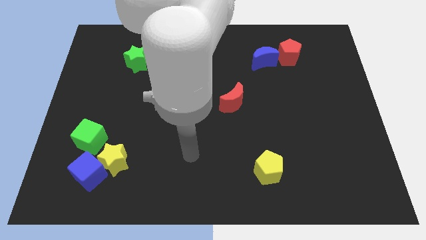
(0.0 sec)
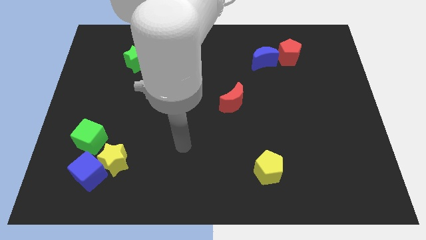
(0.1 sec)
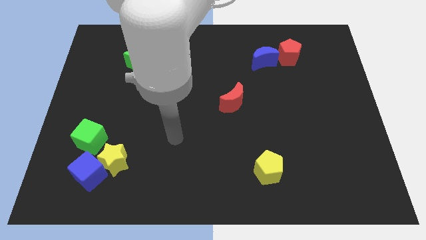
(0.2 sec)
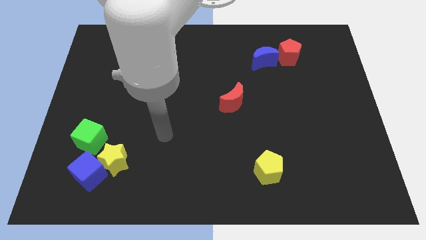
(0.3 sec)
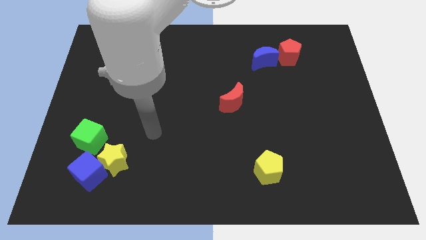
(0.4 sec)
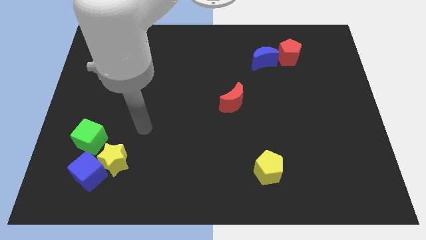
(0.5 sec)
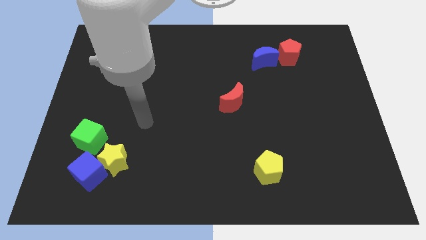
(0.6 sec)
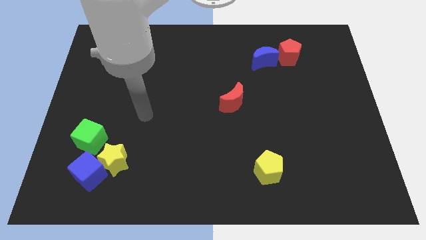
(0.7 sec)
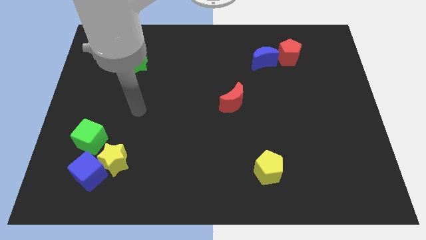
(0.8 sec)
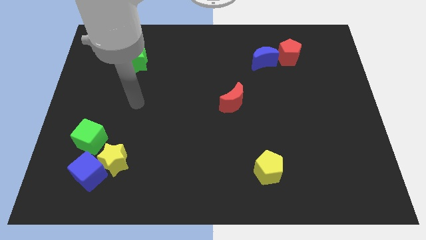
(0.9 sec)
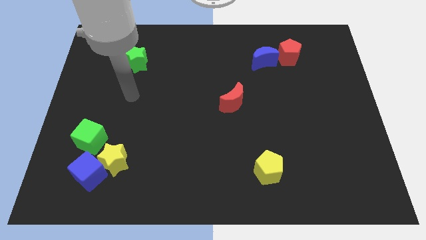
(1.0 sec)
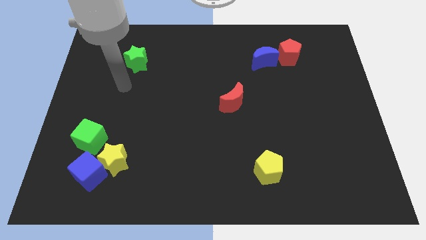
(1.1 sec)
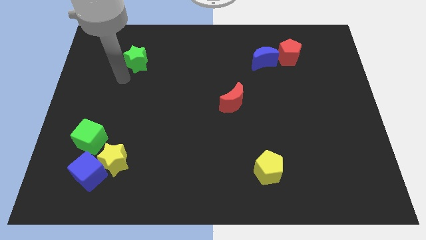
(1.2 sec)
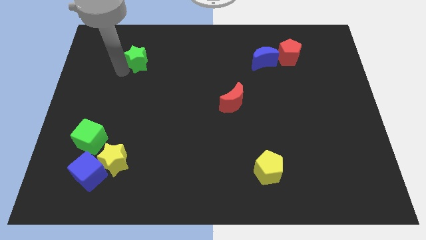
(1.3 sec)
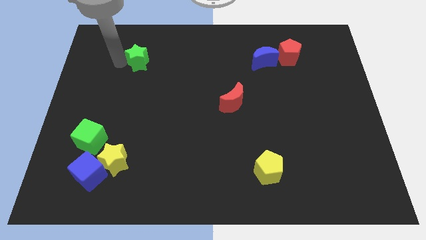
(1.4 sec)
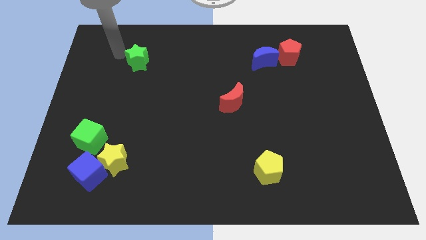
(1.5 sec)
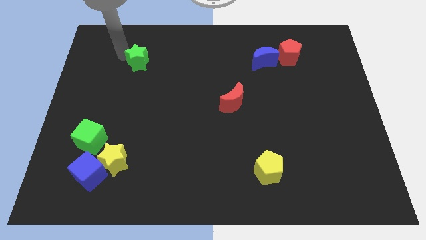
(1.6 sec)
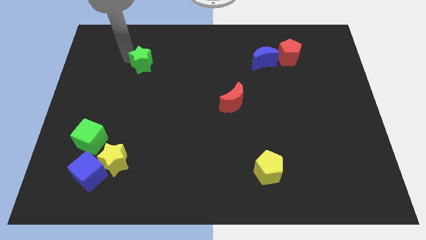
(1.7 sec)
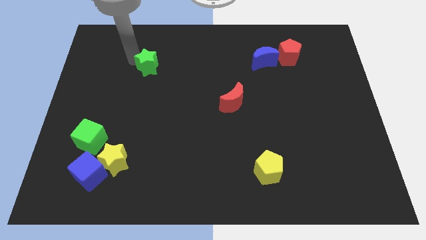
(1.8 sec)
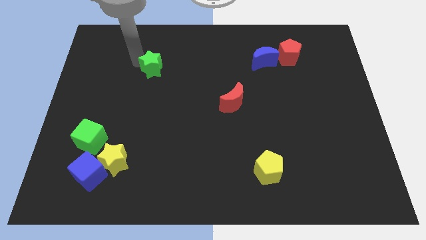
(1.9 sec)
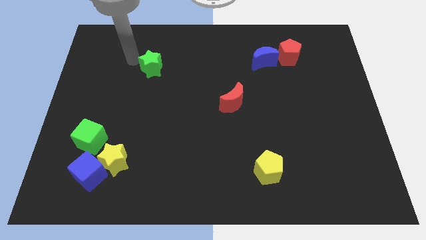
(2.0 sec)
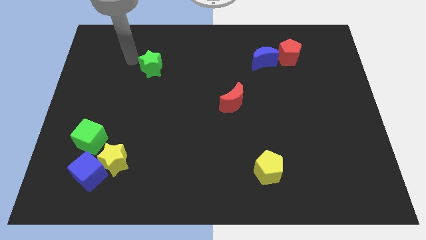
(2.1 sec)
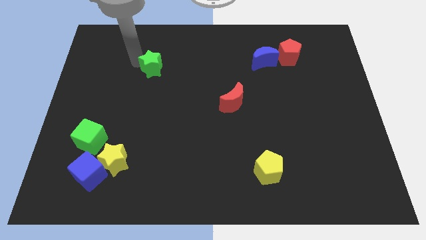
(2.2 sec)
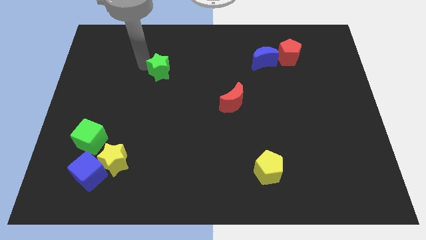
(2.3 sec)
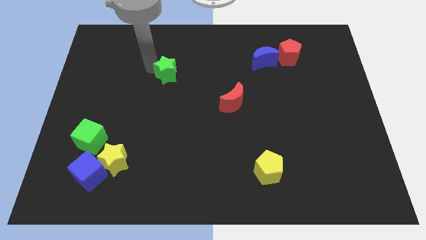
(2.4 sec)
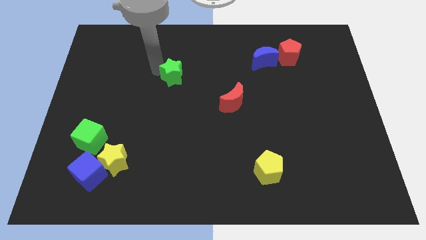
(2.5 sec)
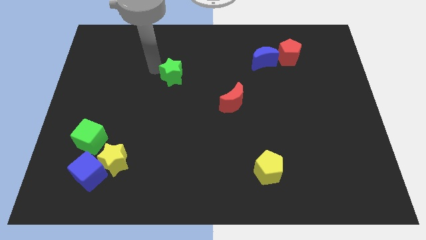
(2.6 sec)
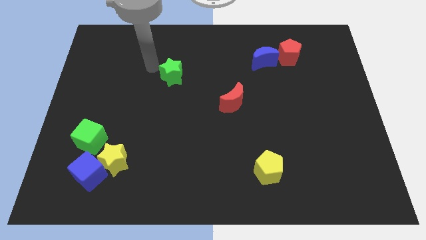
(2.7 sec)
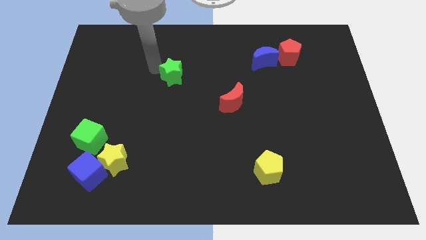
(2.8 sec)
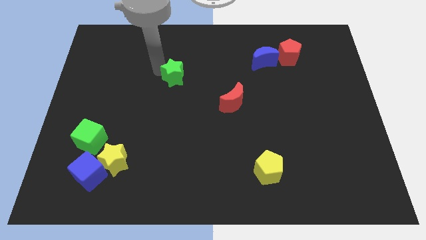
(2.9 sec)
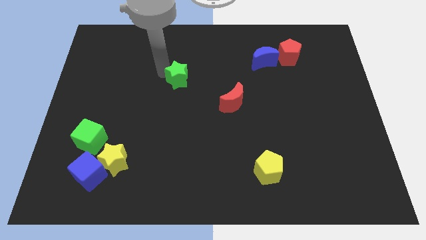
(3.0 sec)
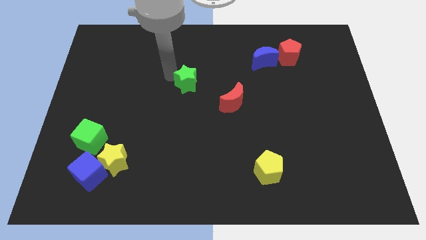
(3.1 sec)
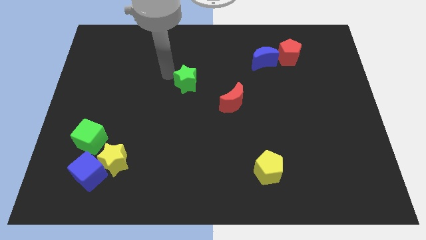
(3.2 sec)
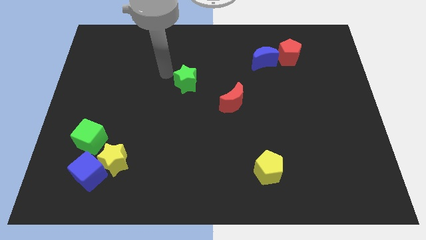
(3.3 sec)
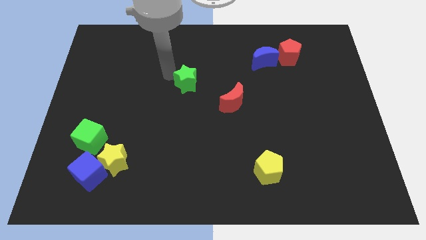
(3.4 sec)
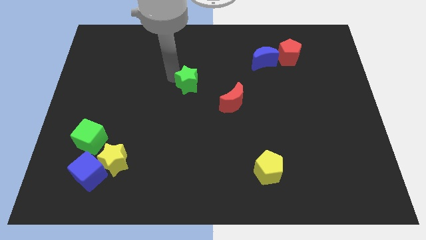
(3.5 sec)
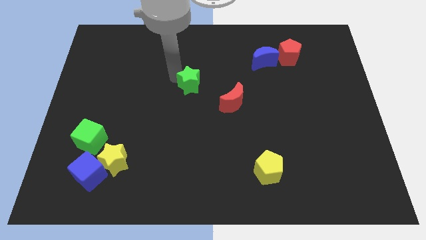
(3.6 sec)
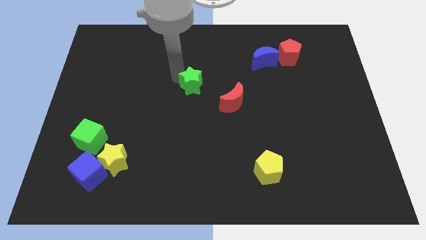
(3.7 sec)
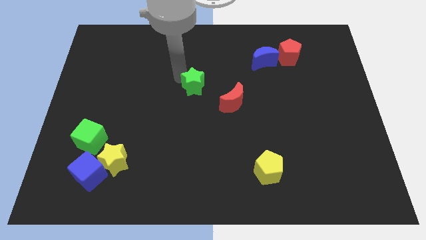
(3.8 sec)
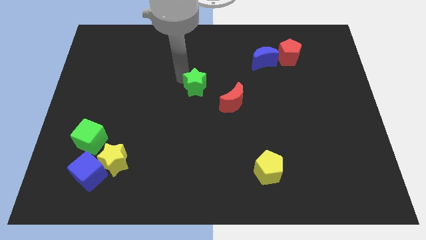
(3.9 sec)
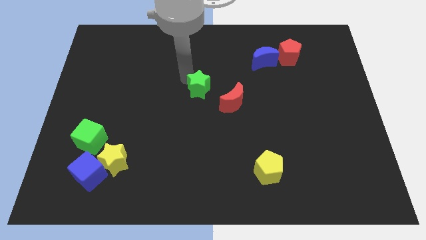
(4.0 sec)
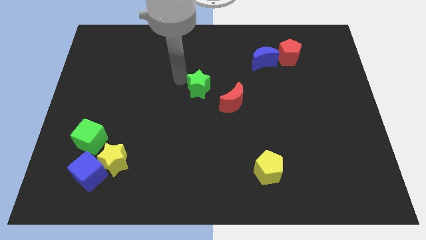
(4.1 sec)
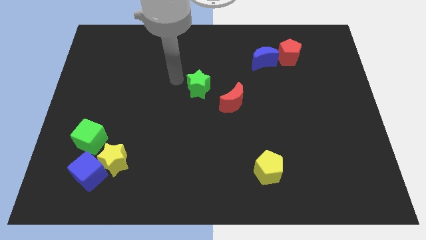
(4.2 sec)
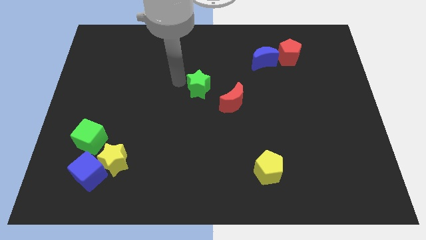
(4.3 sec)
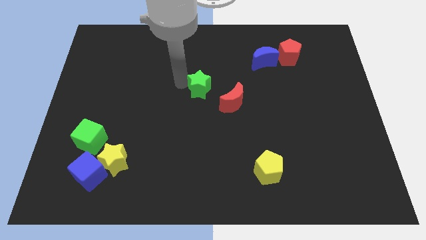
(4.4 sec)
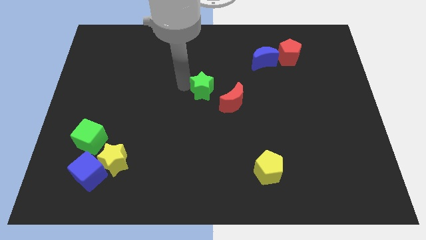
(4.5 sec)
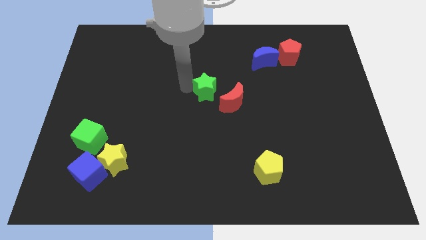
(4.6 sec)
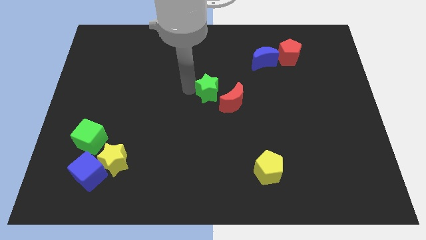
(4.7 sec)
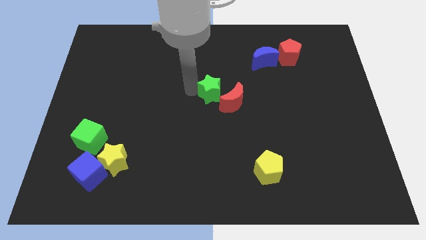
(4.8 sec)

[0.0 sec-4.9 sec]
push the green star close to the red moon

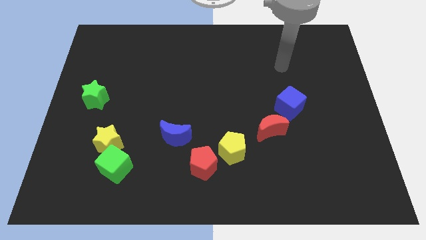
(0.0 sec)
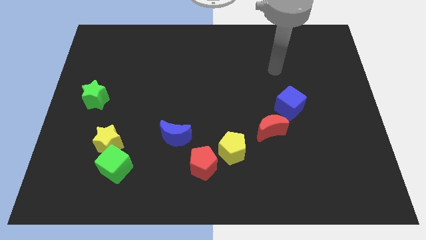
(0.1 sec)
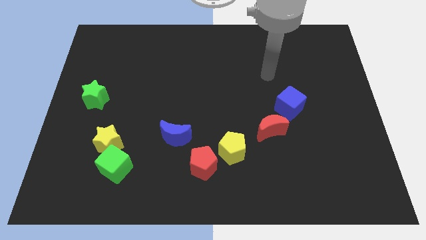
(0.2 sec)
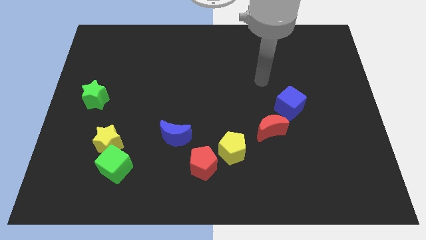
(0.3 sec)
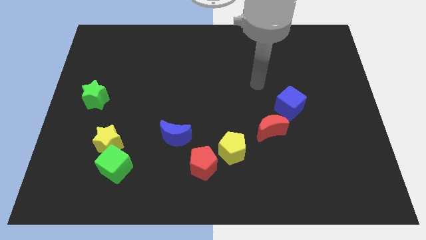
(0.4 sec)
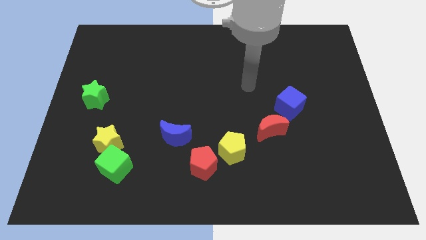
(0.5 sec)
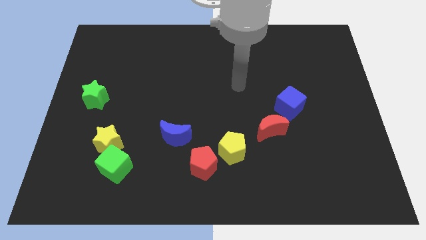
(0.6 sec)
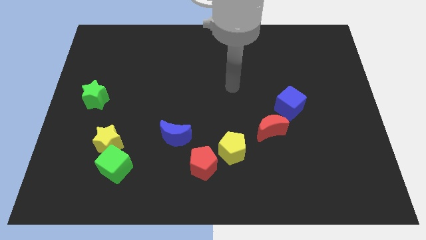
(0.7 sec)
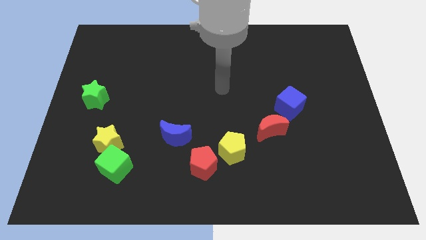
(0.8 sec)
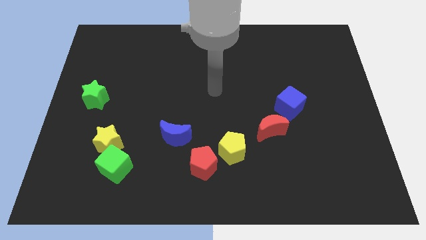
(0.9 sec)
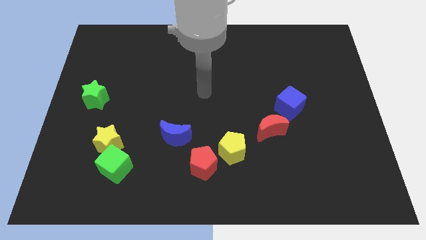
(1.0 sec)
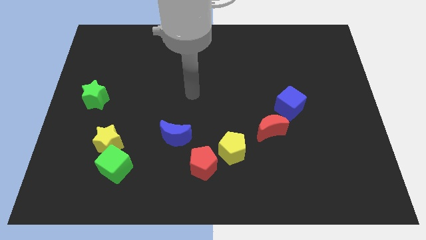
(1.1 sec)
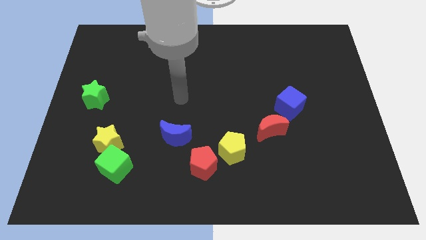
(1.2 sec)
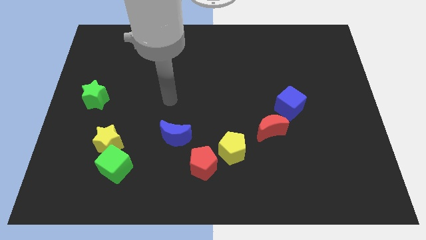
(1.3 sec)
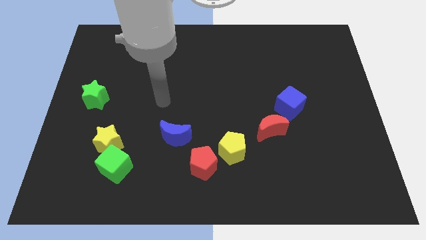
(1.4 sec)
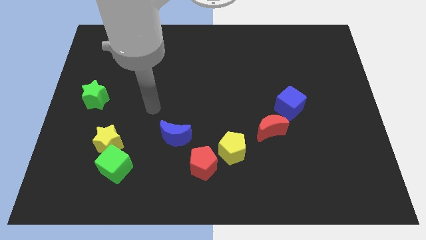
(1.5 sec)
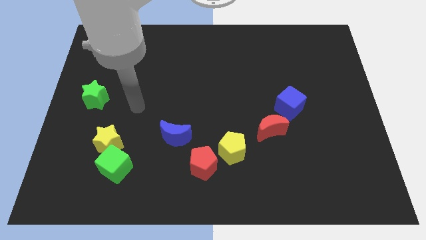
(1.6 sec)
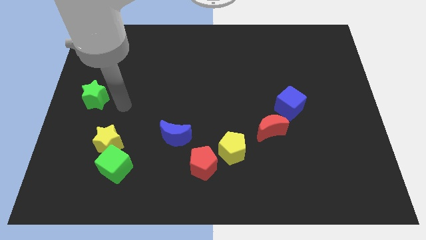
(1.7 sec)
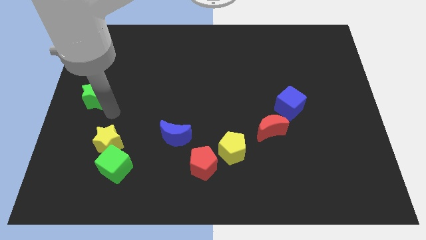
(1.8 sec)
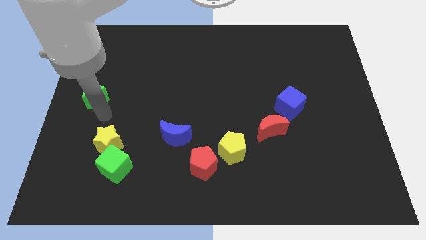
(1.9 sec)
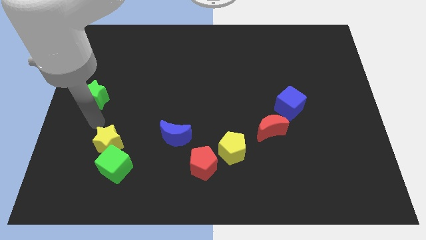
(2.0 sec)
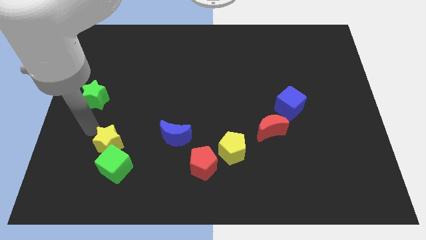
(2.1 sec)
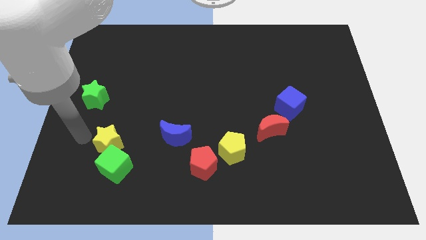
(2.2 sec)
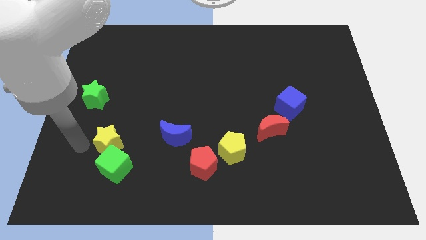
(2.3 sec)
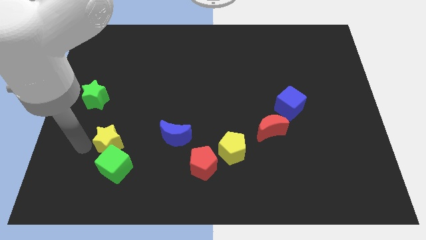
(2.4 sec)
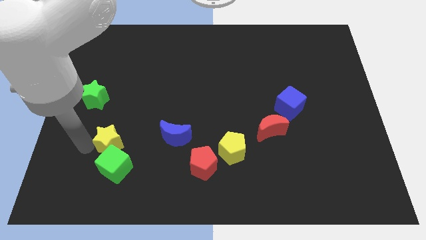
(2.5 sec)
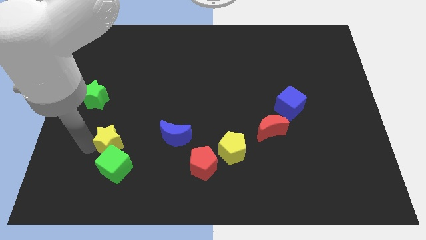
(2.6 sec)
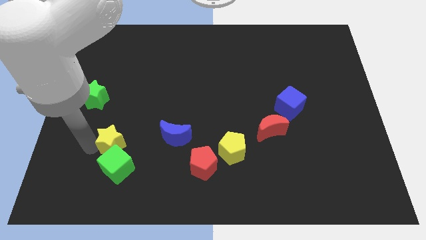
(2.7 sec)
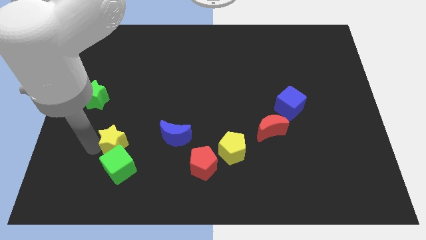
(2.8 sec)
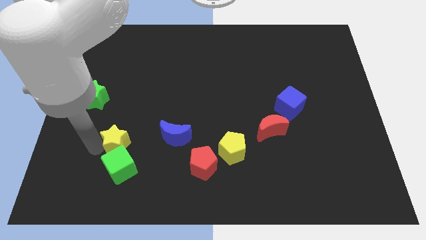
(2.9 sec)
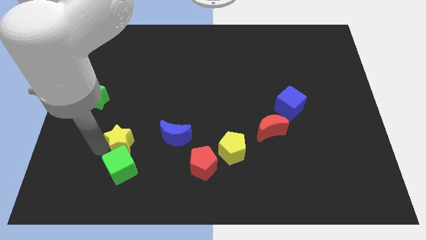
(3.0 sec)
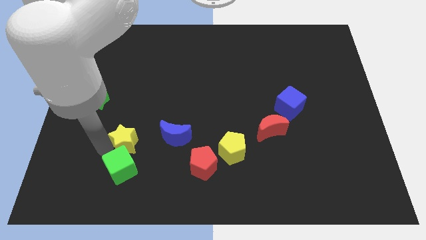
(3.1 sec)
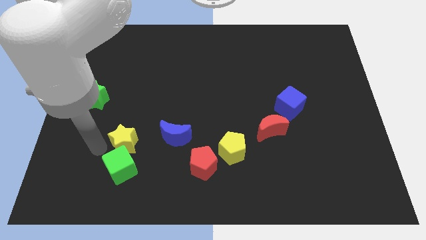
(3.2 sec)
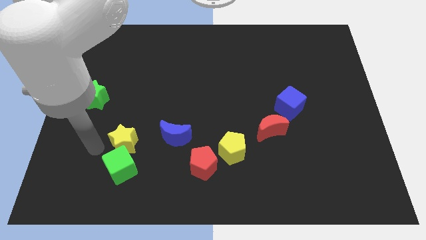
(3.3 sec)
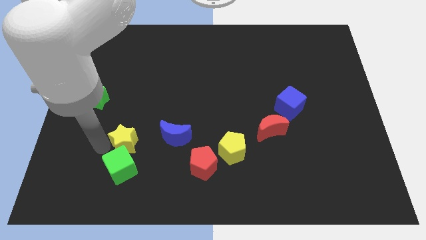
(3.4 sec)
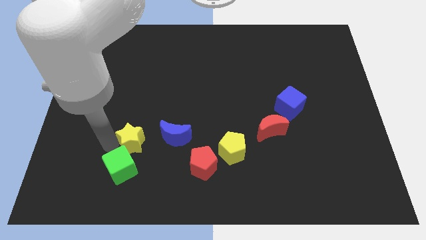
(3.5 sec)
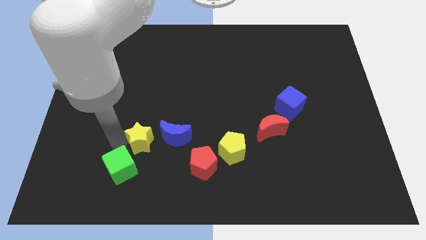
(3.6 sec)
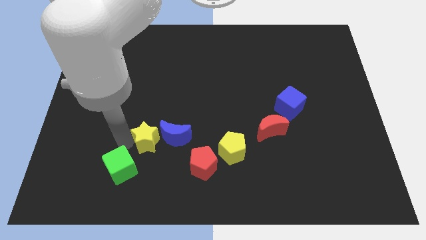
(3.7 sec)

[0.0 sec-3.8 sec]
slide the yellow star to the blue moon
